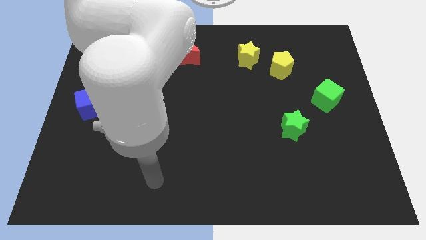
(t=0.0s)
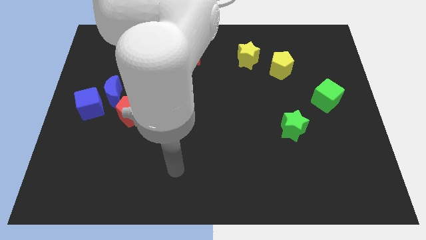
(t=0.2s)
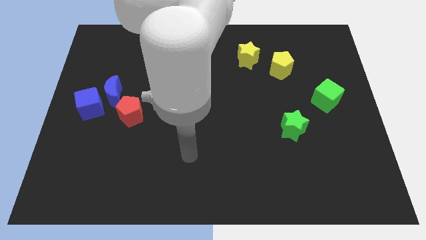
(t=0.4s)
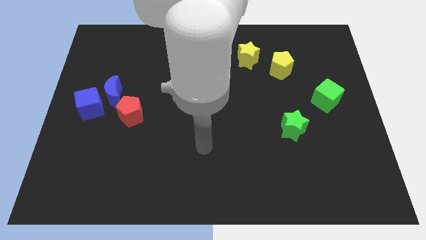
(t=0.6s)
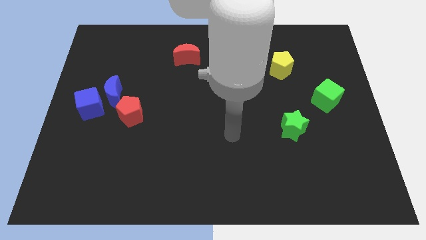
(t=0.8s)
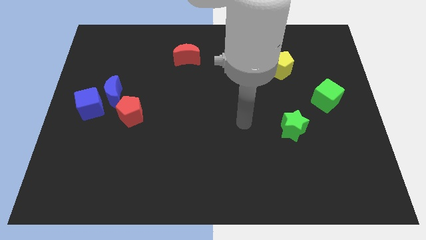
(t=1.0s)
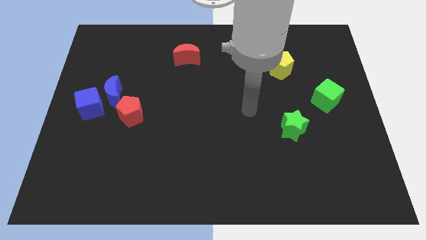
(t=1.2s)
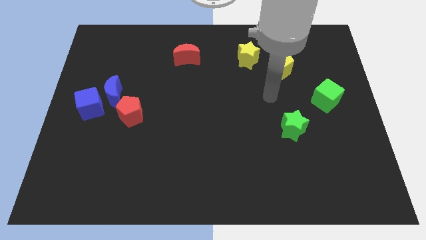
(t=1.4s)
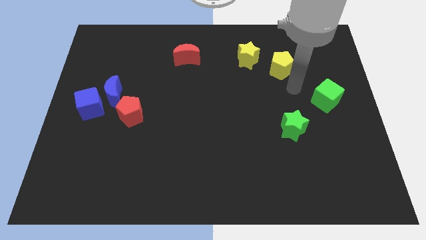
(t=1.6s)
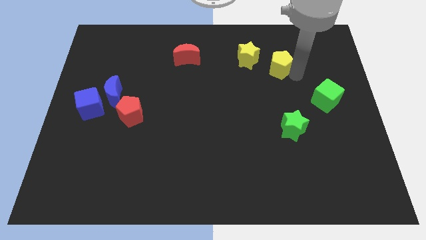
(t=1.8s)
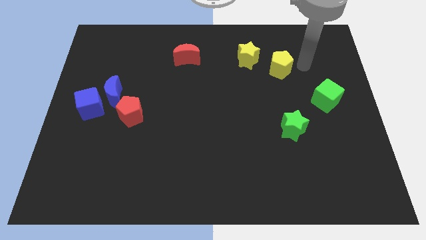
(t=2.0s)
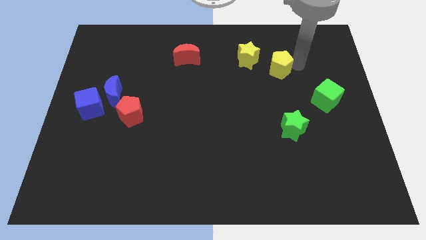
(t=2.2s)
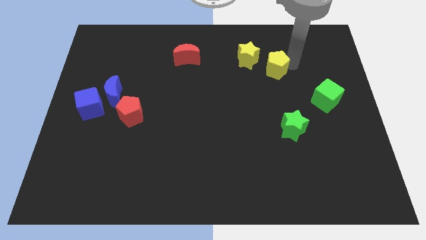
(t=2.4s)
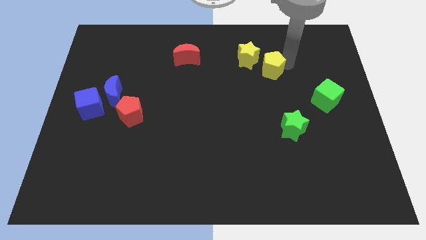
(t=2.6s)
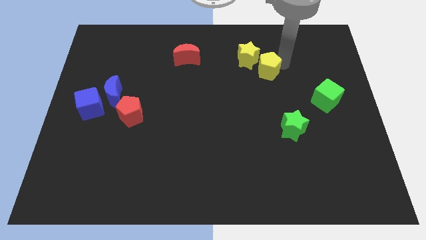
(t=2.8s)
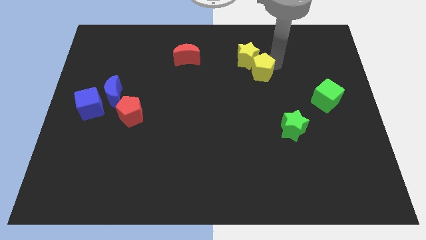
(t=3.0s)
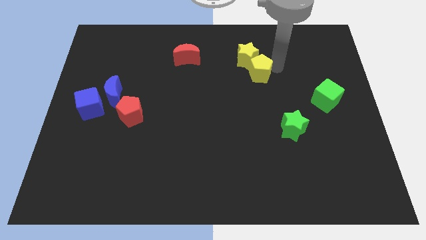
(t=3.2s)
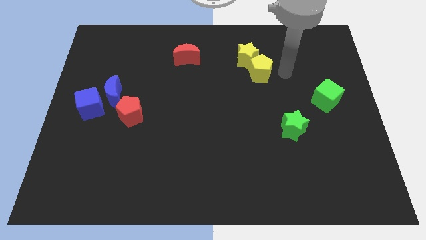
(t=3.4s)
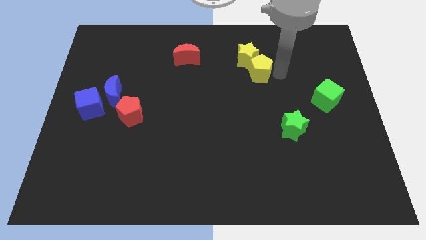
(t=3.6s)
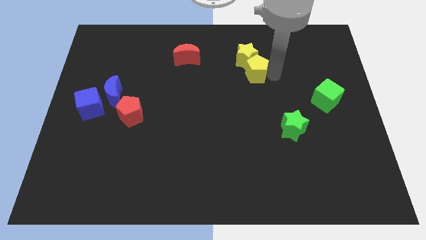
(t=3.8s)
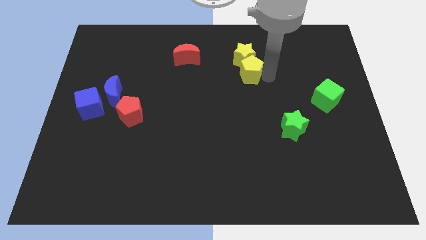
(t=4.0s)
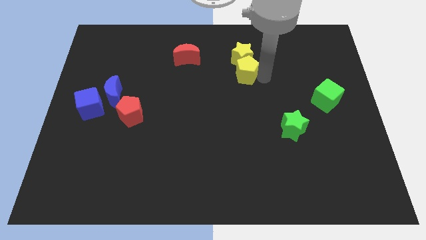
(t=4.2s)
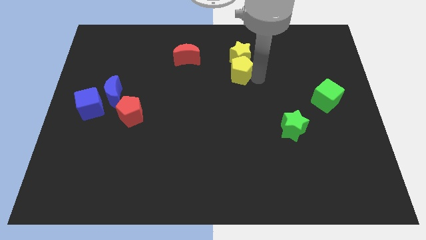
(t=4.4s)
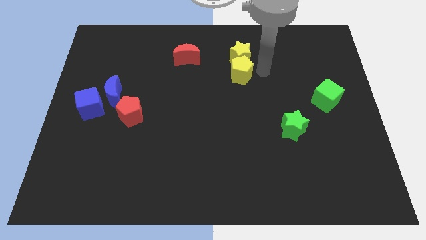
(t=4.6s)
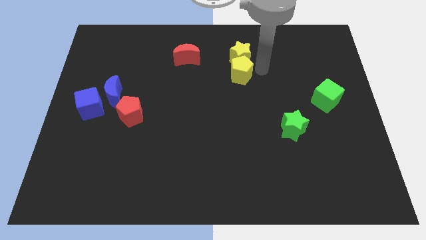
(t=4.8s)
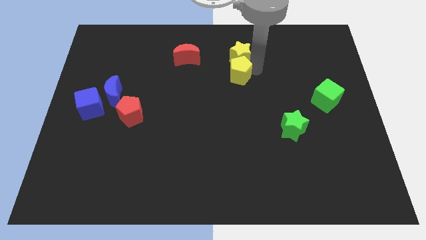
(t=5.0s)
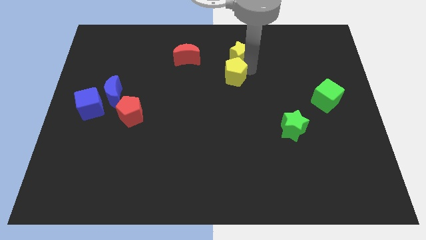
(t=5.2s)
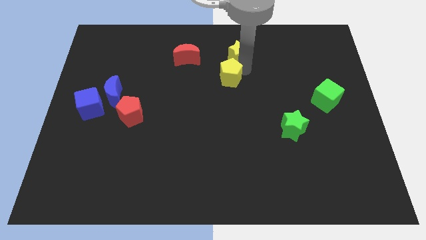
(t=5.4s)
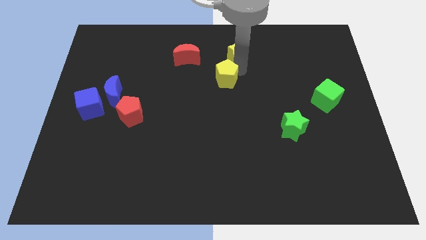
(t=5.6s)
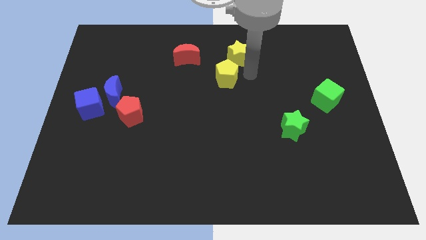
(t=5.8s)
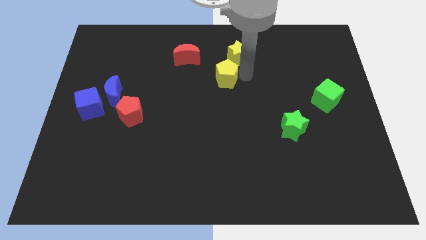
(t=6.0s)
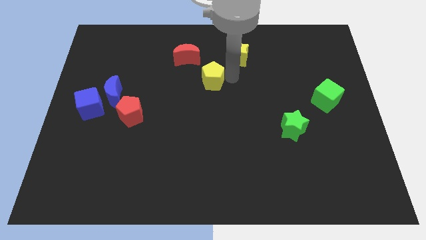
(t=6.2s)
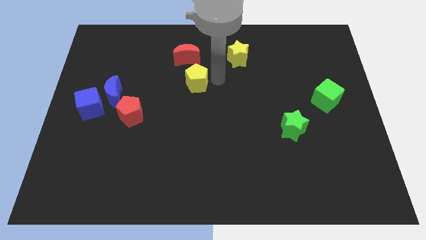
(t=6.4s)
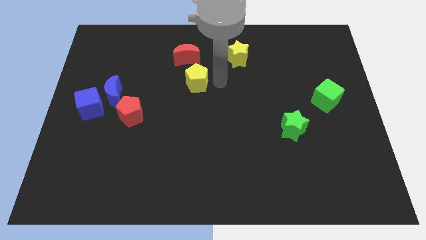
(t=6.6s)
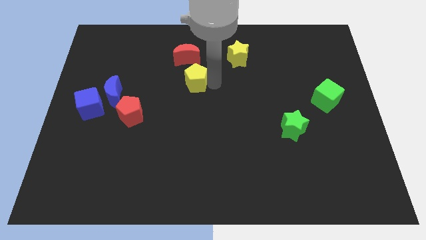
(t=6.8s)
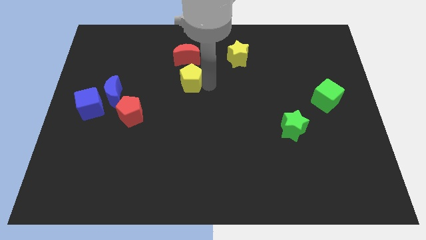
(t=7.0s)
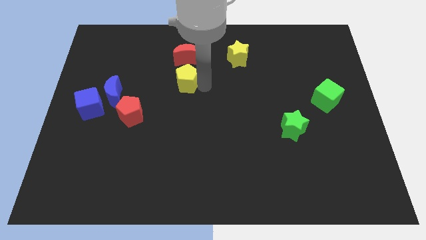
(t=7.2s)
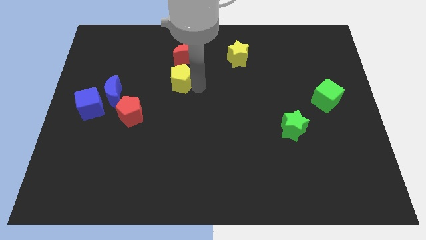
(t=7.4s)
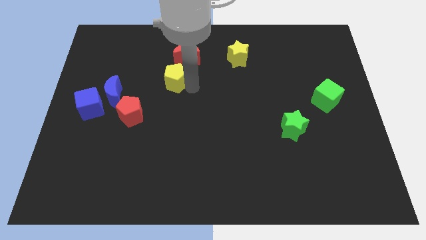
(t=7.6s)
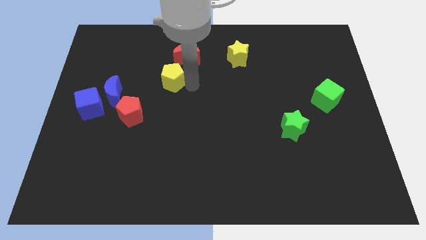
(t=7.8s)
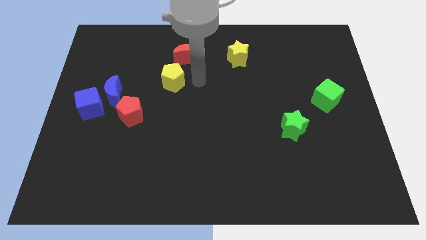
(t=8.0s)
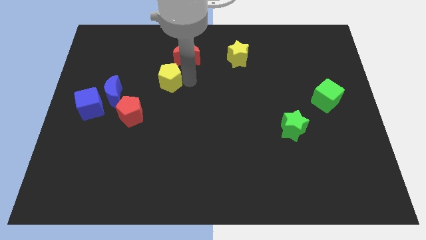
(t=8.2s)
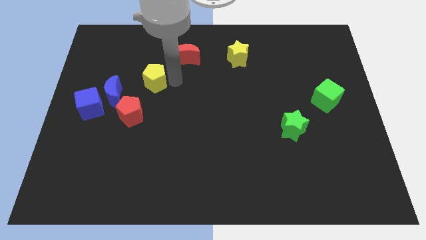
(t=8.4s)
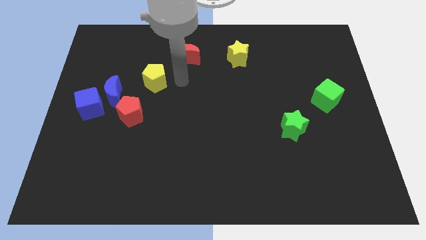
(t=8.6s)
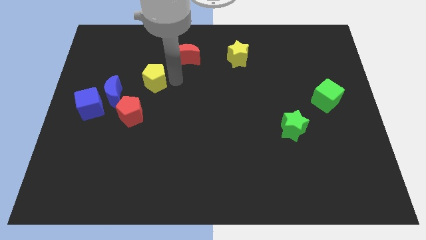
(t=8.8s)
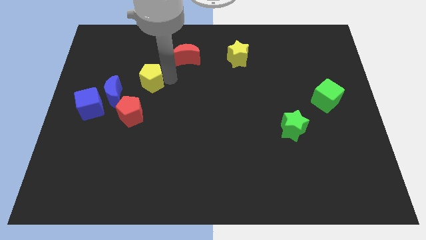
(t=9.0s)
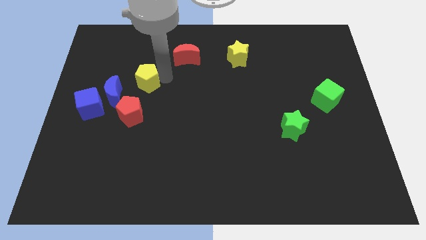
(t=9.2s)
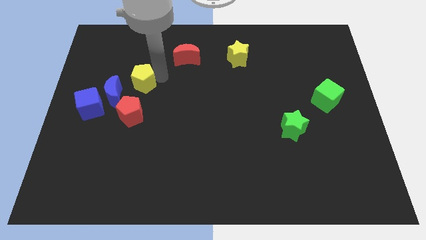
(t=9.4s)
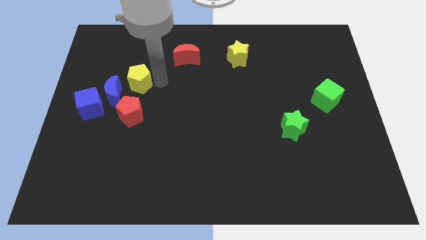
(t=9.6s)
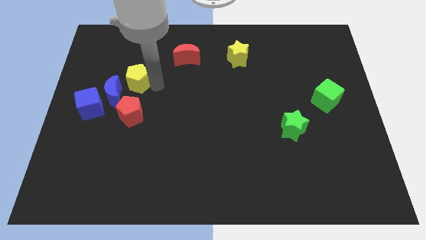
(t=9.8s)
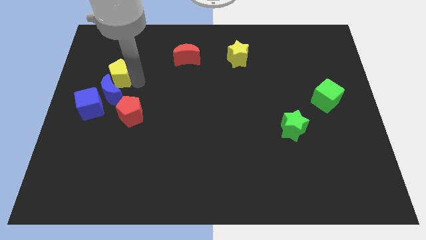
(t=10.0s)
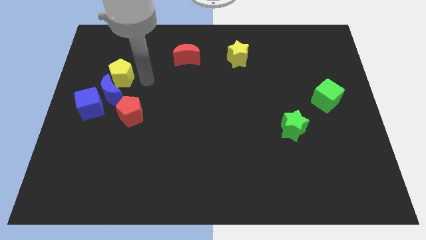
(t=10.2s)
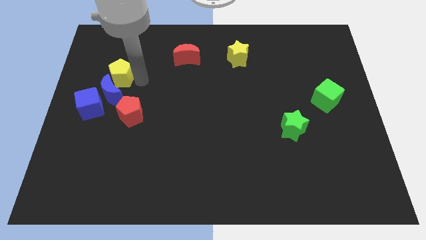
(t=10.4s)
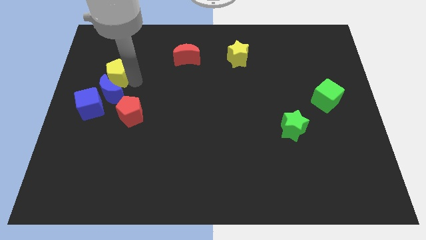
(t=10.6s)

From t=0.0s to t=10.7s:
move the yellow pentagon to the top of the blue cube

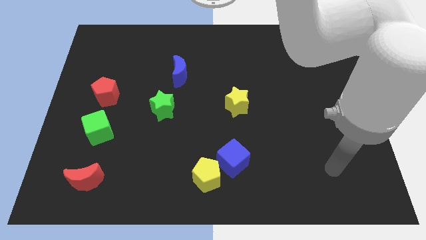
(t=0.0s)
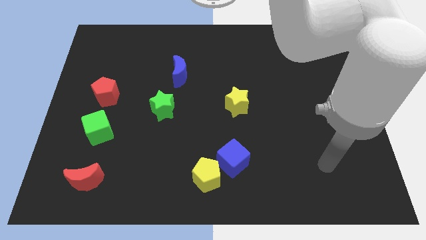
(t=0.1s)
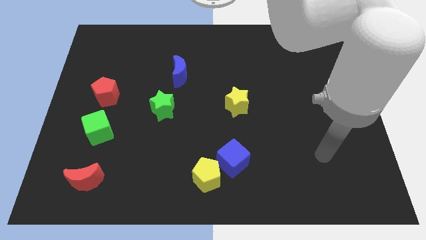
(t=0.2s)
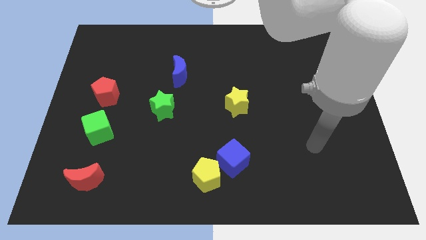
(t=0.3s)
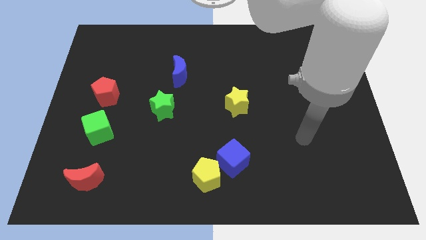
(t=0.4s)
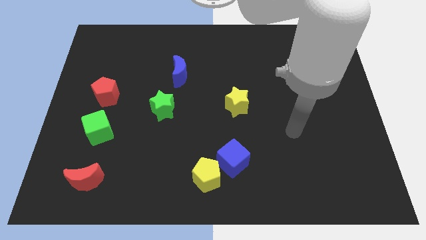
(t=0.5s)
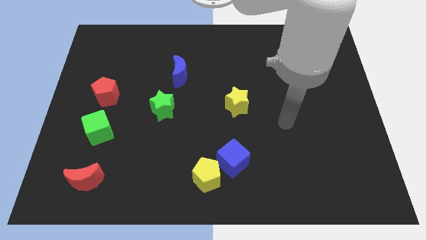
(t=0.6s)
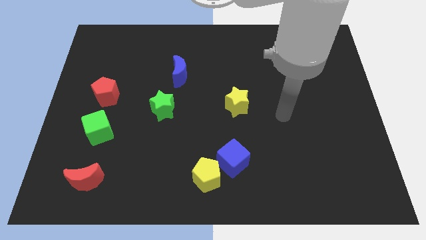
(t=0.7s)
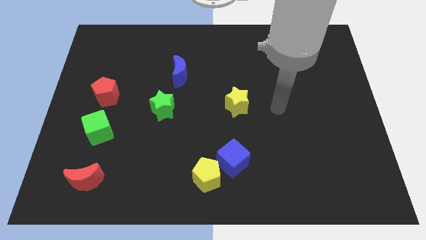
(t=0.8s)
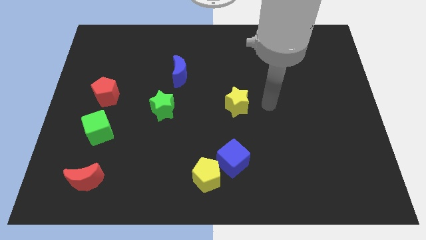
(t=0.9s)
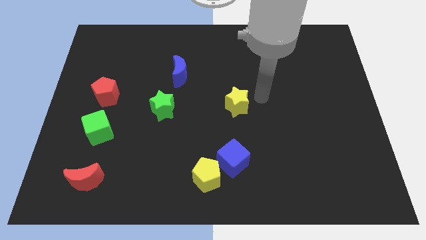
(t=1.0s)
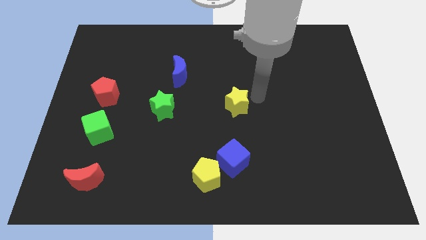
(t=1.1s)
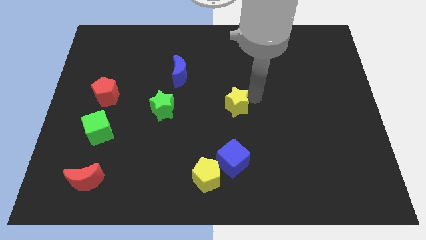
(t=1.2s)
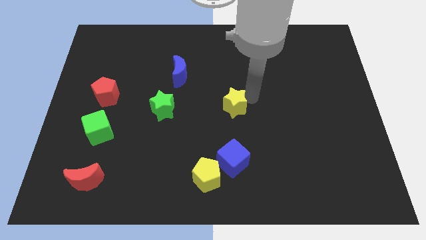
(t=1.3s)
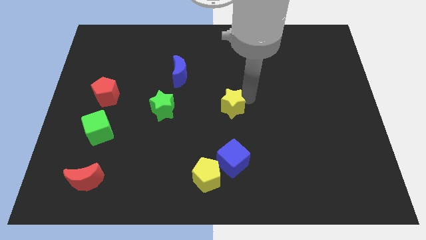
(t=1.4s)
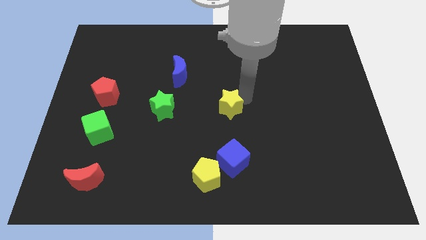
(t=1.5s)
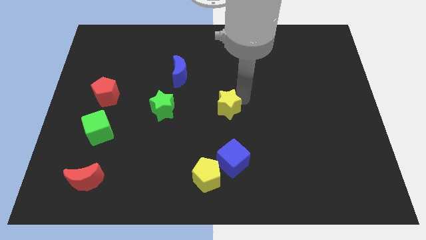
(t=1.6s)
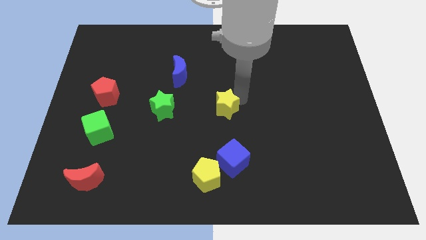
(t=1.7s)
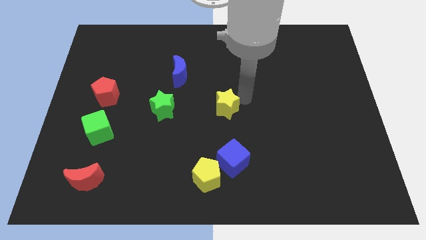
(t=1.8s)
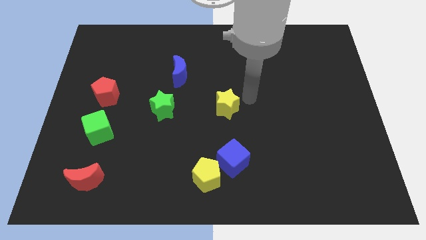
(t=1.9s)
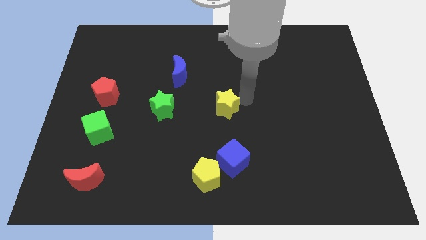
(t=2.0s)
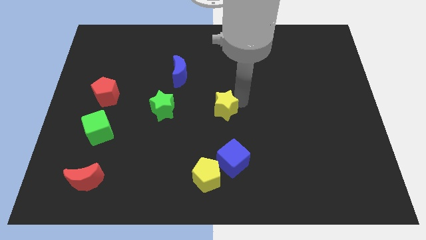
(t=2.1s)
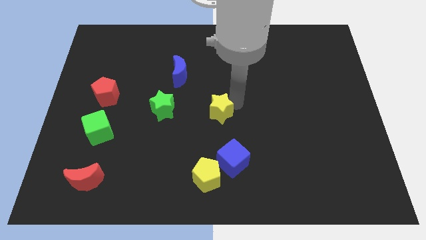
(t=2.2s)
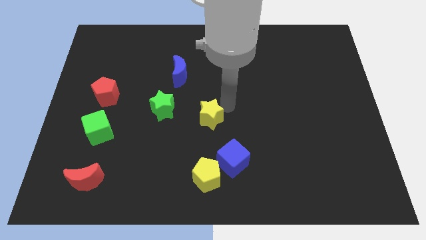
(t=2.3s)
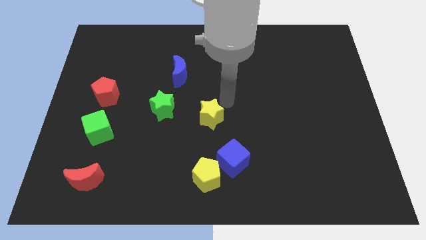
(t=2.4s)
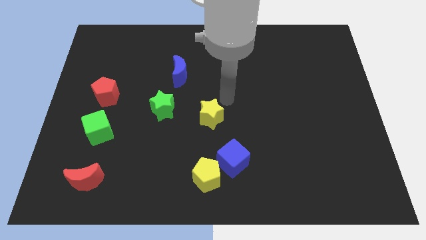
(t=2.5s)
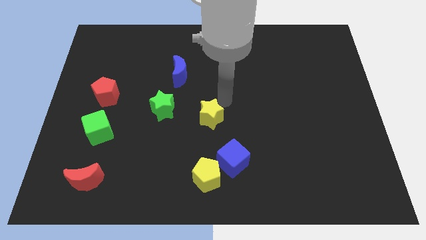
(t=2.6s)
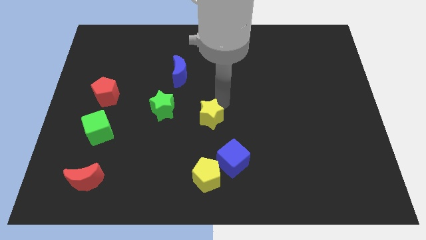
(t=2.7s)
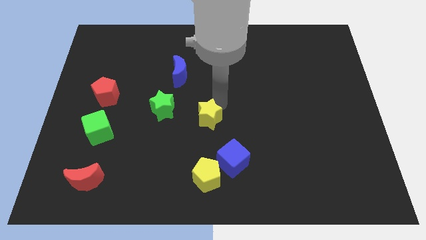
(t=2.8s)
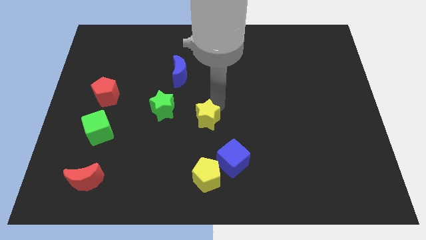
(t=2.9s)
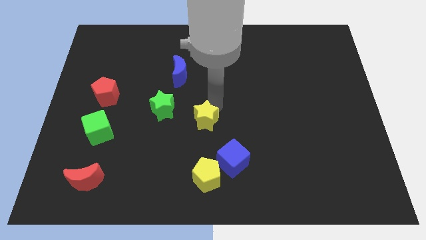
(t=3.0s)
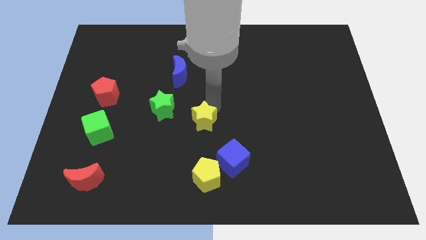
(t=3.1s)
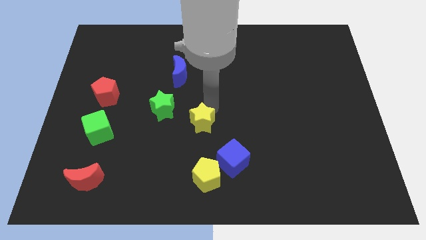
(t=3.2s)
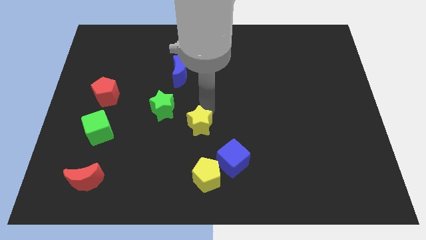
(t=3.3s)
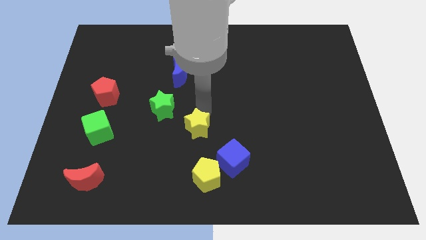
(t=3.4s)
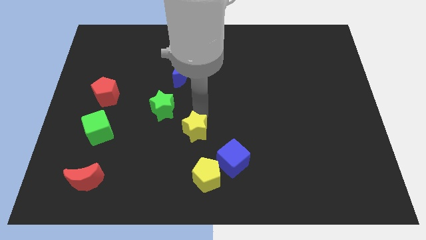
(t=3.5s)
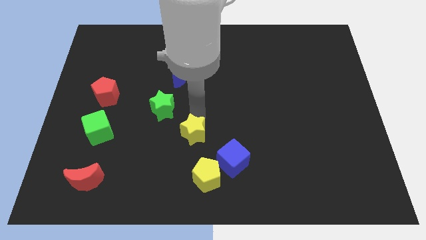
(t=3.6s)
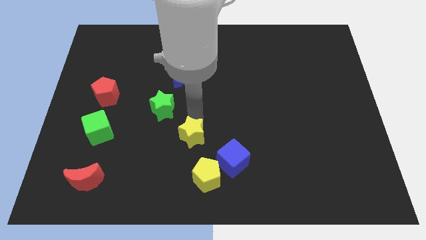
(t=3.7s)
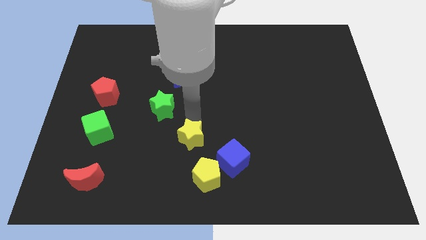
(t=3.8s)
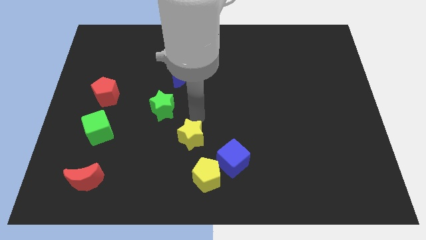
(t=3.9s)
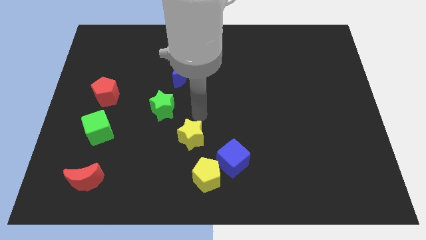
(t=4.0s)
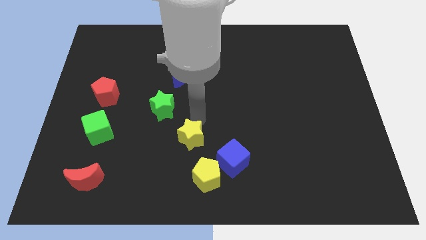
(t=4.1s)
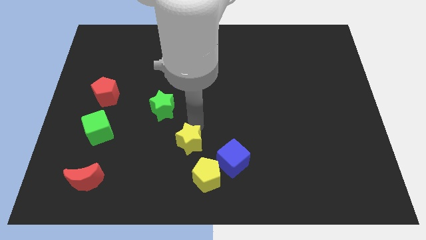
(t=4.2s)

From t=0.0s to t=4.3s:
put the yellow star just left of the blue cube
